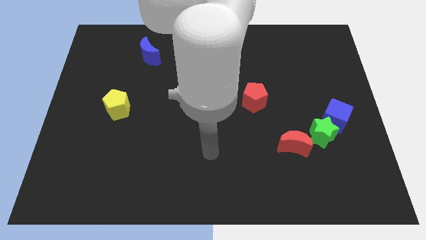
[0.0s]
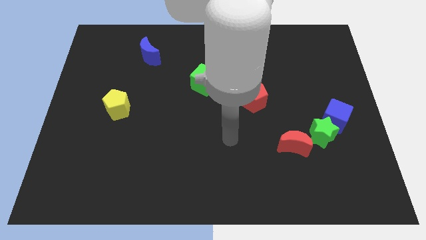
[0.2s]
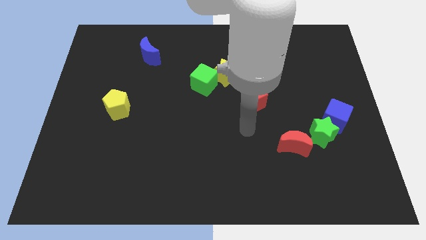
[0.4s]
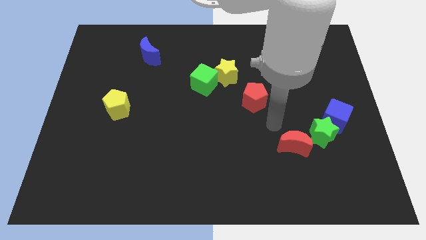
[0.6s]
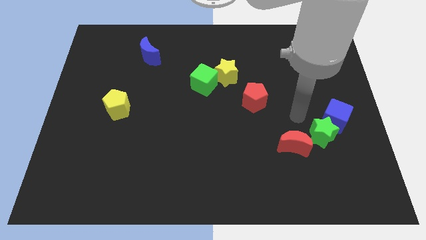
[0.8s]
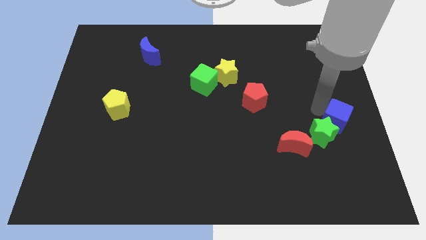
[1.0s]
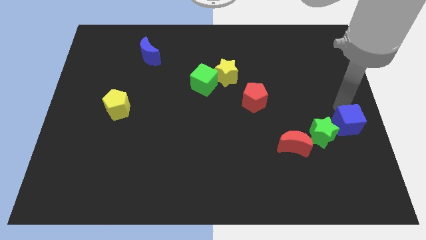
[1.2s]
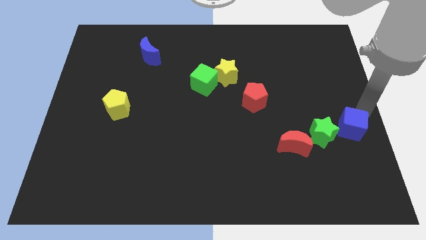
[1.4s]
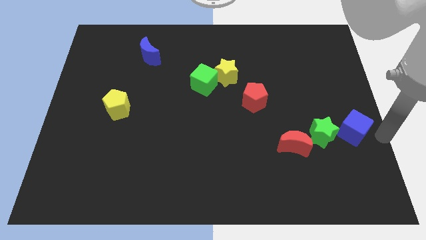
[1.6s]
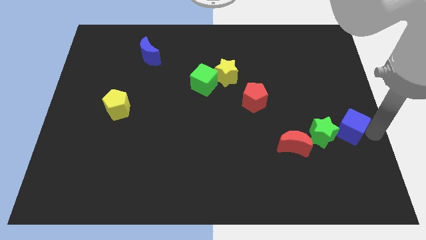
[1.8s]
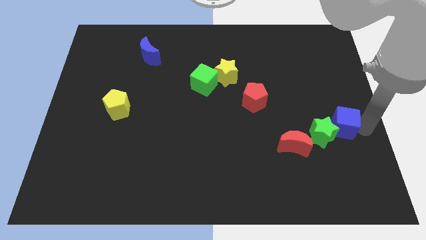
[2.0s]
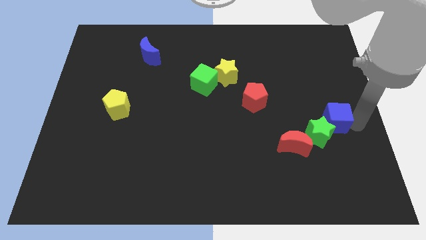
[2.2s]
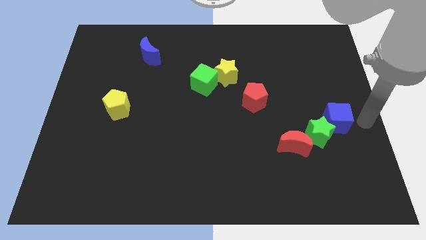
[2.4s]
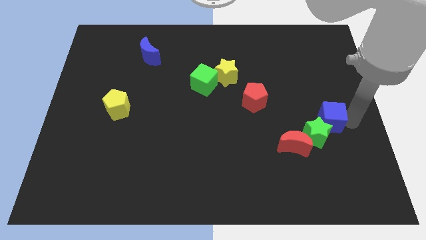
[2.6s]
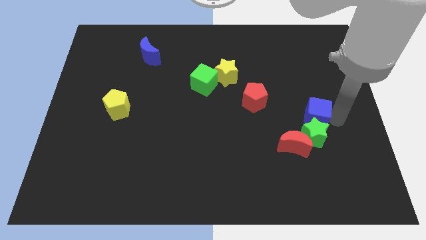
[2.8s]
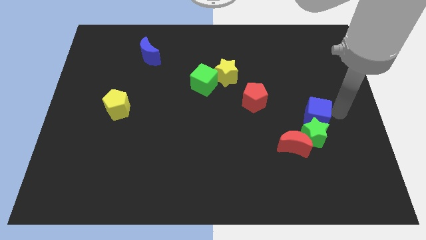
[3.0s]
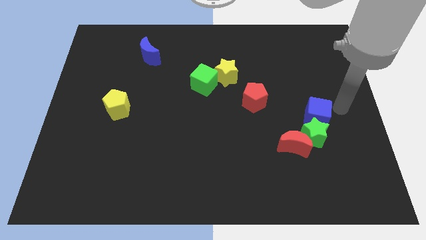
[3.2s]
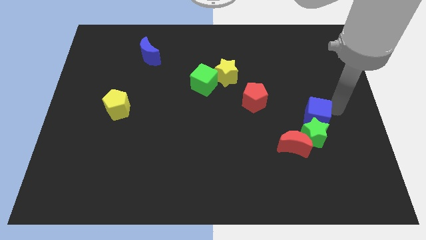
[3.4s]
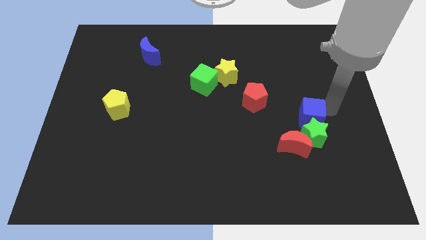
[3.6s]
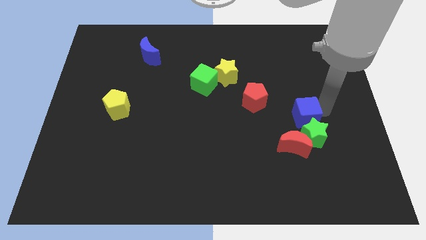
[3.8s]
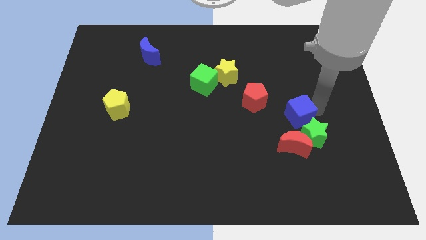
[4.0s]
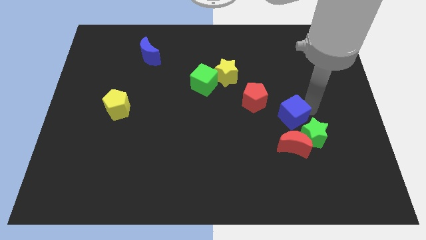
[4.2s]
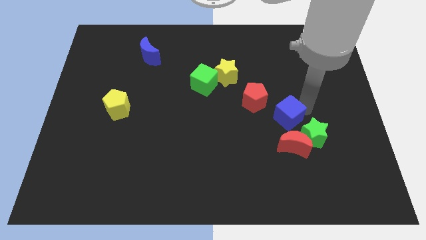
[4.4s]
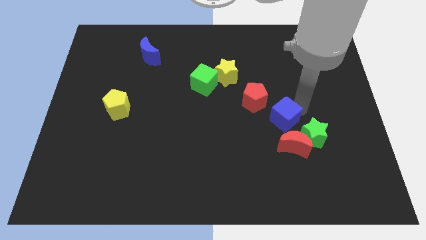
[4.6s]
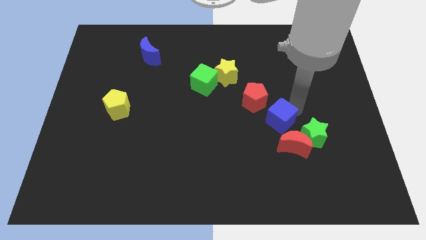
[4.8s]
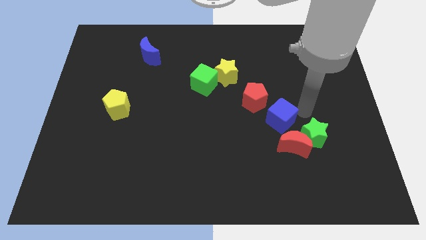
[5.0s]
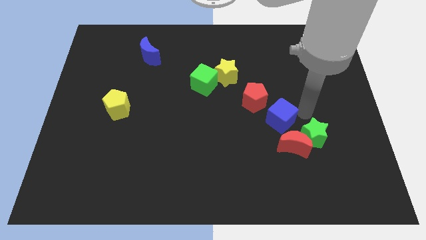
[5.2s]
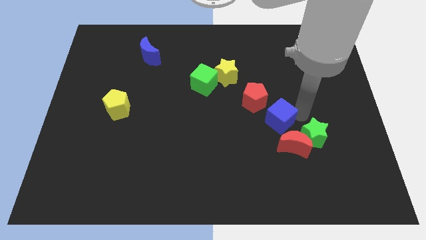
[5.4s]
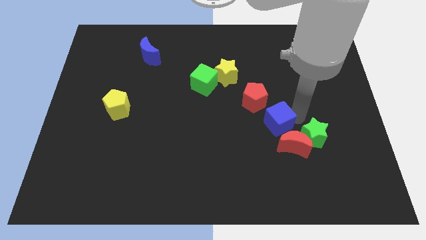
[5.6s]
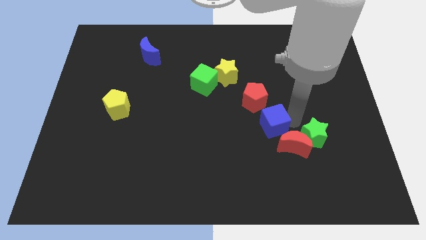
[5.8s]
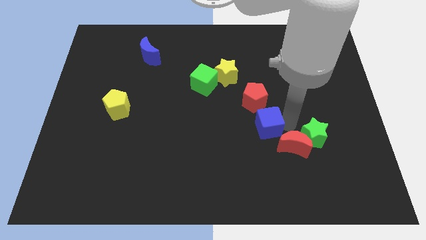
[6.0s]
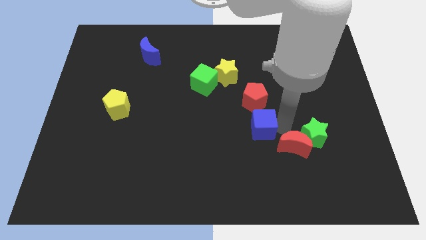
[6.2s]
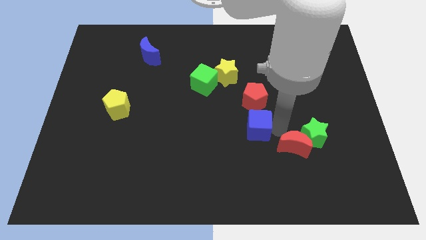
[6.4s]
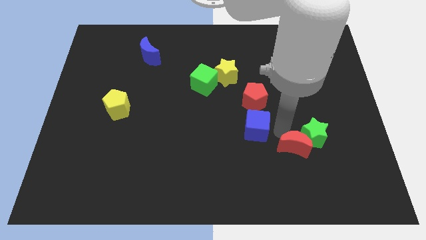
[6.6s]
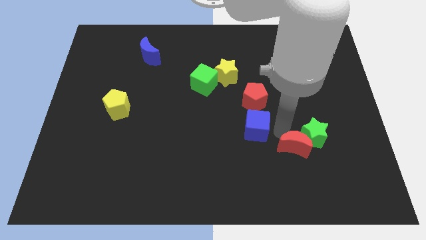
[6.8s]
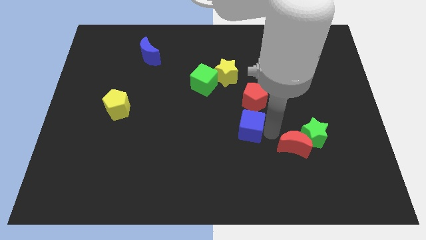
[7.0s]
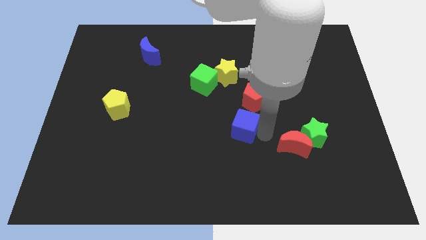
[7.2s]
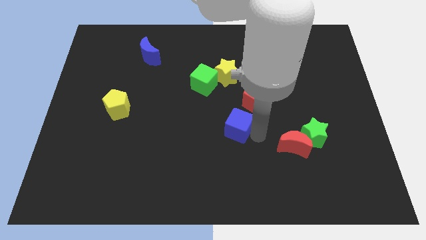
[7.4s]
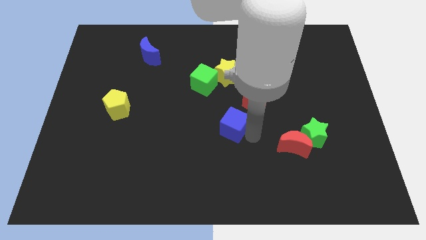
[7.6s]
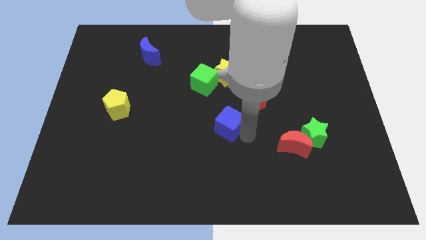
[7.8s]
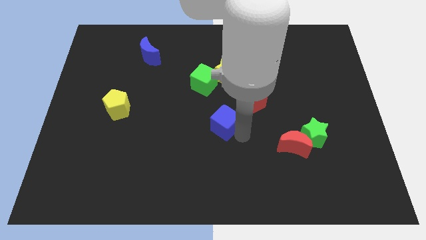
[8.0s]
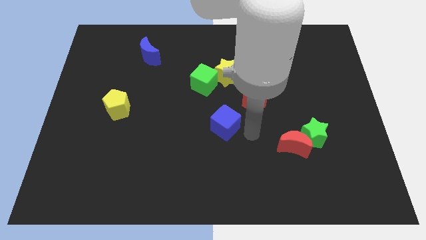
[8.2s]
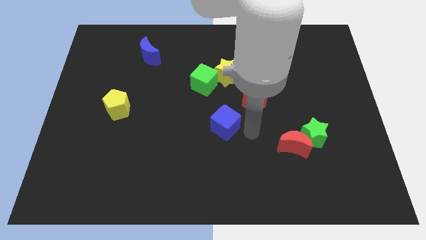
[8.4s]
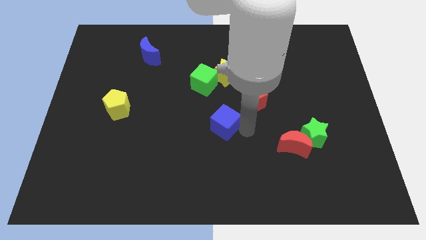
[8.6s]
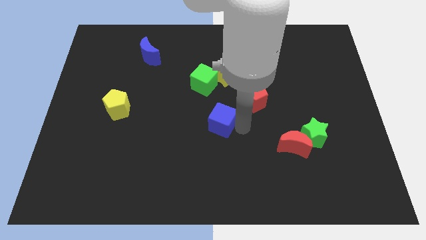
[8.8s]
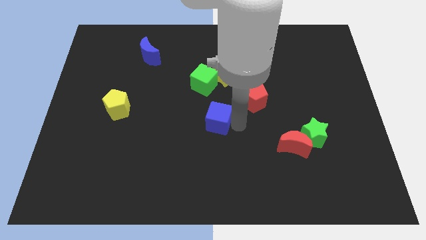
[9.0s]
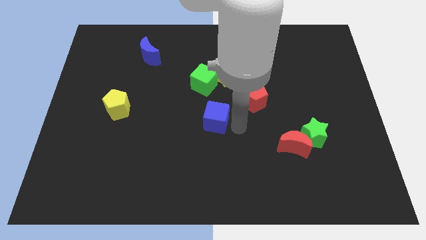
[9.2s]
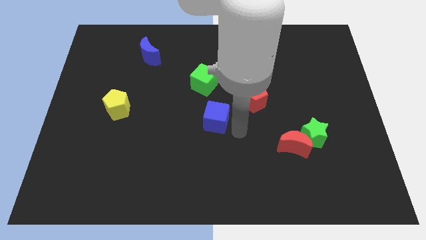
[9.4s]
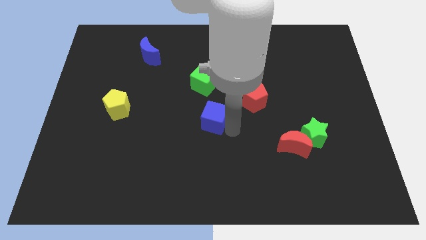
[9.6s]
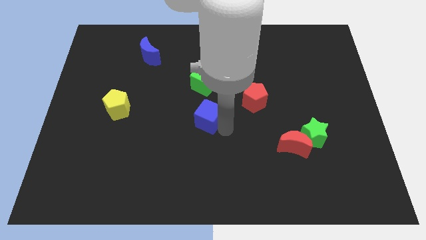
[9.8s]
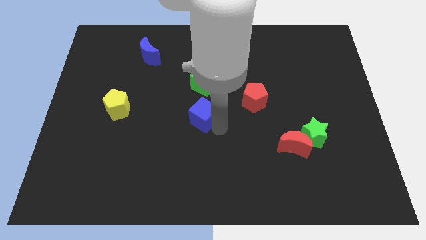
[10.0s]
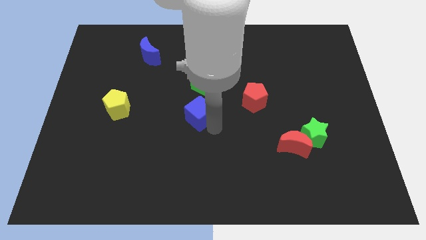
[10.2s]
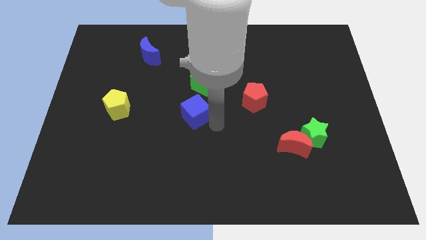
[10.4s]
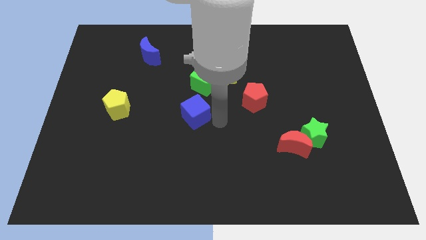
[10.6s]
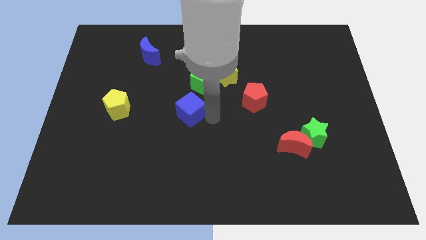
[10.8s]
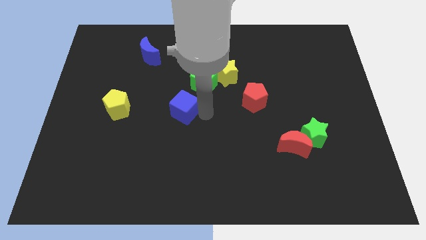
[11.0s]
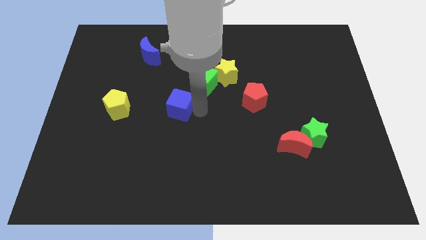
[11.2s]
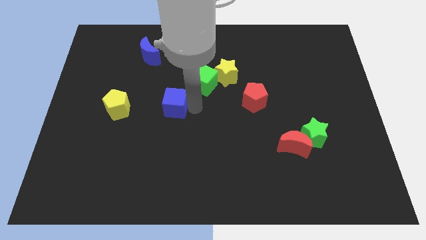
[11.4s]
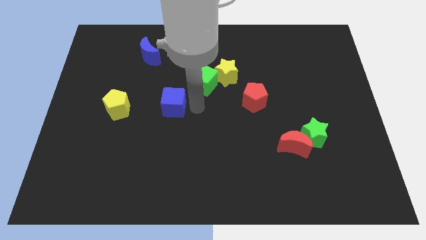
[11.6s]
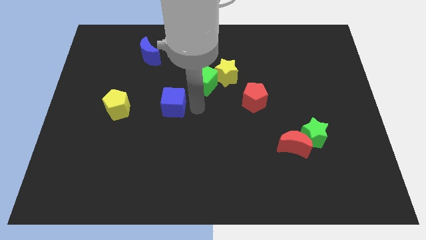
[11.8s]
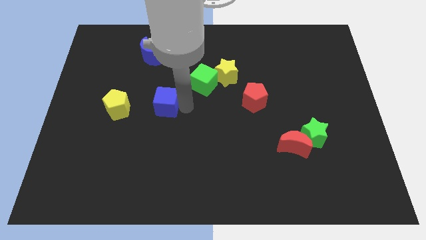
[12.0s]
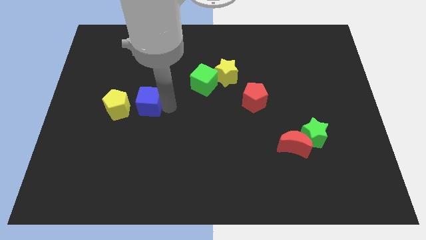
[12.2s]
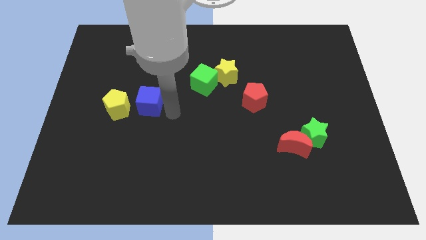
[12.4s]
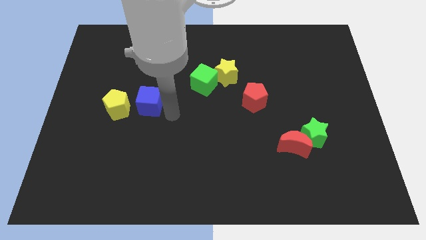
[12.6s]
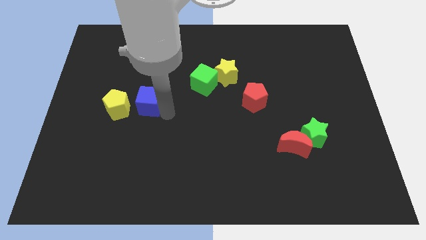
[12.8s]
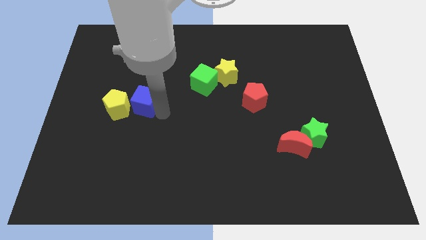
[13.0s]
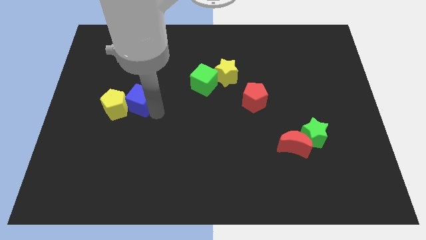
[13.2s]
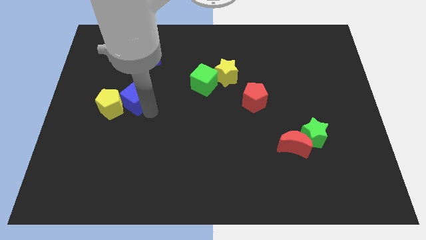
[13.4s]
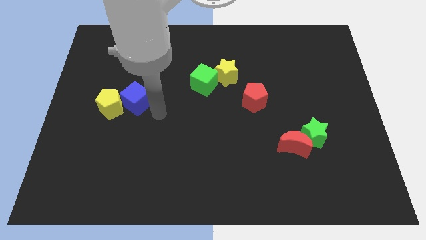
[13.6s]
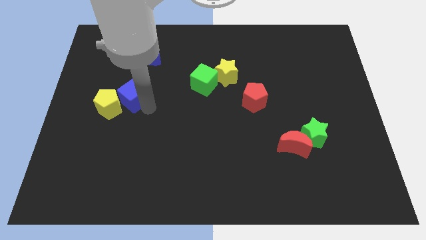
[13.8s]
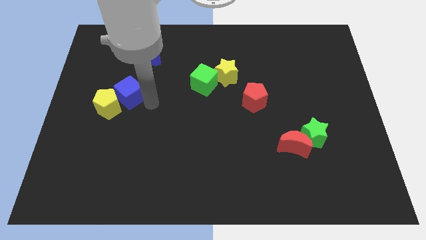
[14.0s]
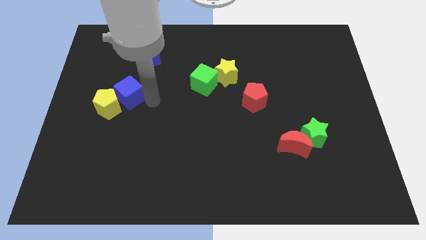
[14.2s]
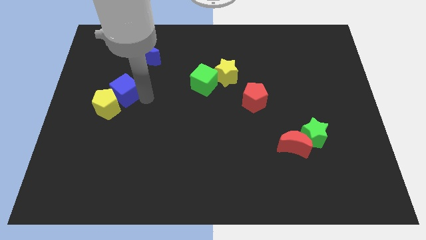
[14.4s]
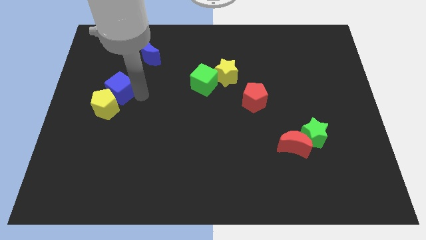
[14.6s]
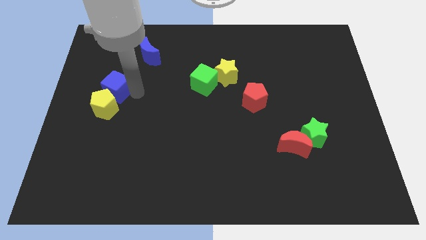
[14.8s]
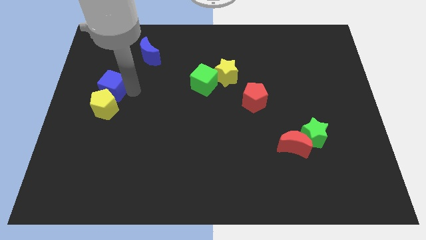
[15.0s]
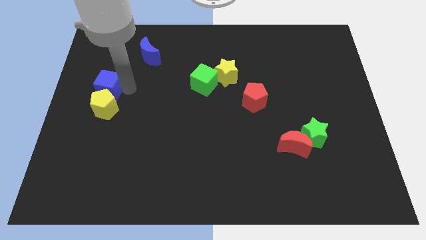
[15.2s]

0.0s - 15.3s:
push the blue cube to the left side
